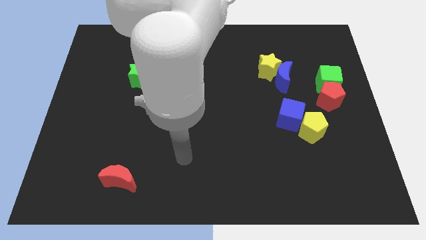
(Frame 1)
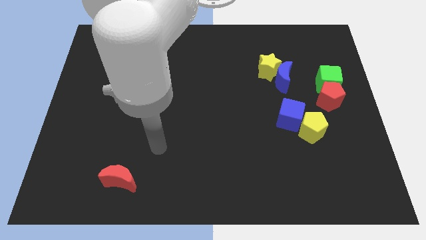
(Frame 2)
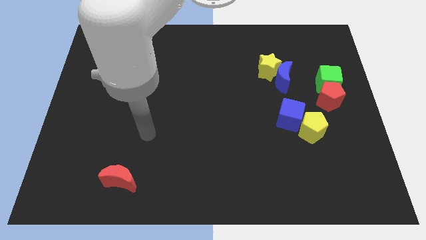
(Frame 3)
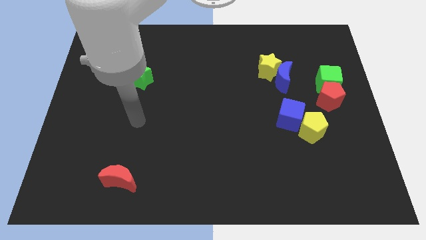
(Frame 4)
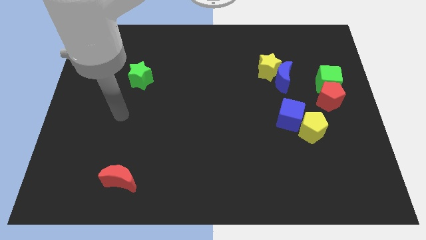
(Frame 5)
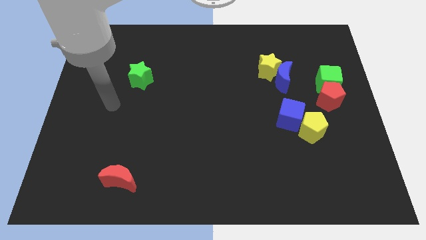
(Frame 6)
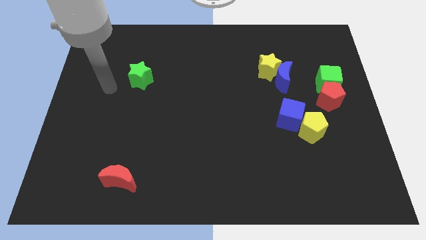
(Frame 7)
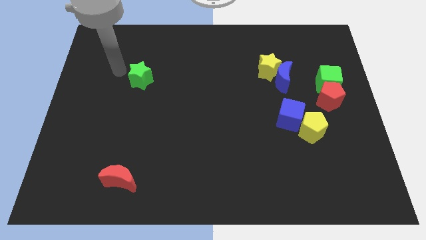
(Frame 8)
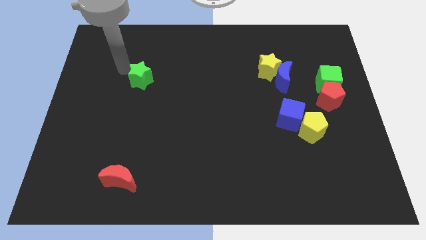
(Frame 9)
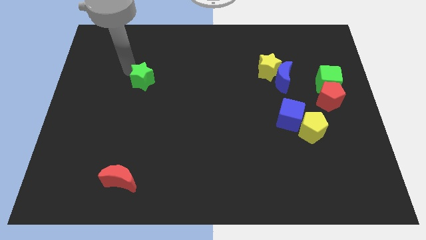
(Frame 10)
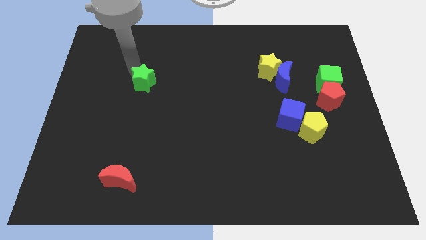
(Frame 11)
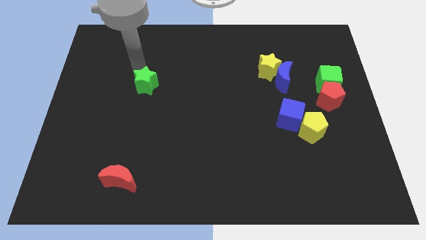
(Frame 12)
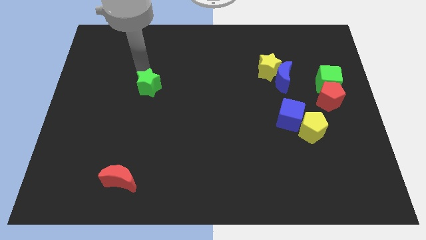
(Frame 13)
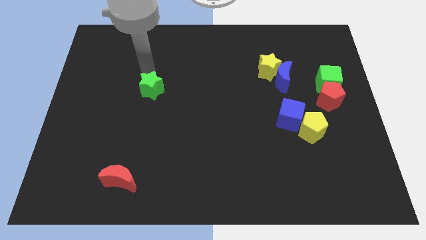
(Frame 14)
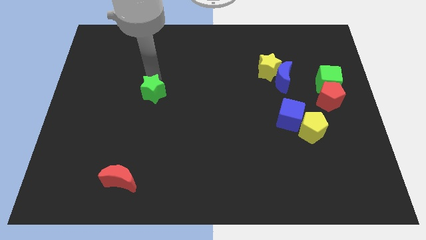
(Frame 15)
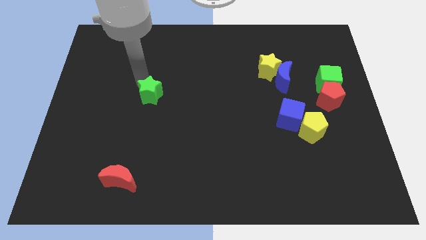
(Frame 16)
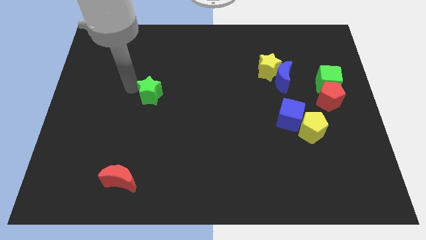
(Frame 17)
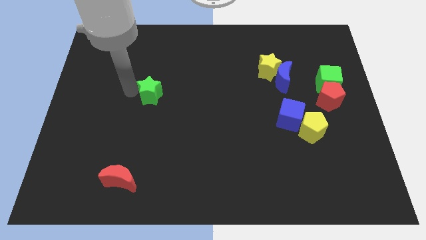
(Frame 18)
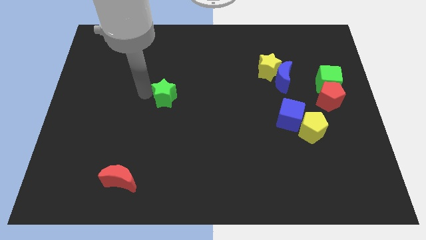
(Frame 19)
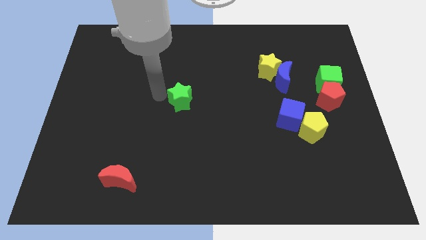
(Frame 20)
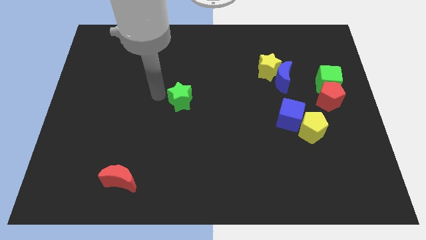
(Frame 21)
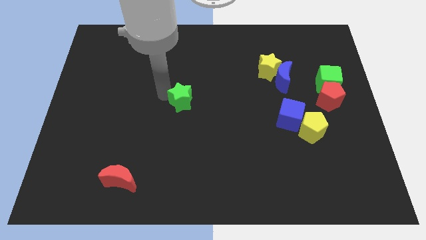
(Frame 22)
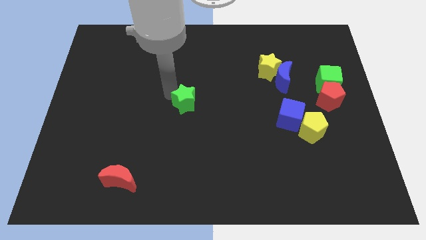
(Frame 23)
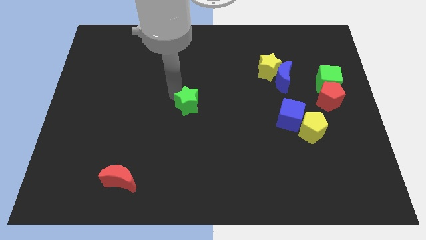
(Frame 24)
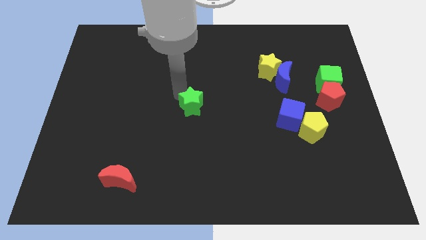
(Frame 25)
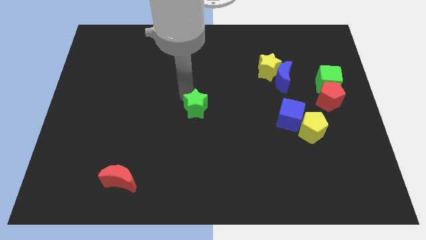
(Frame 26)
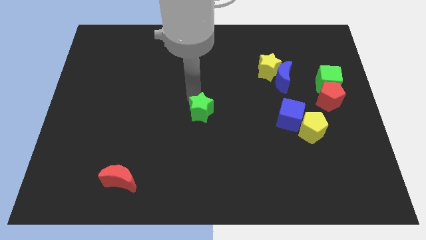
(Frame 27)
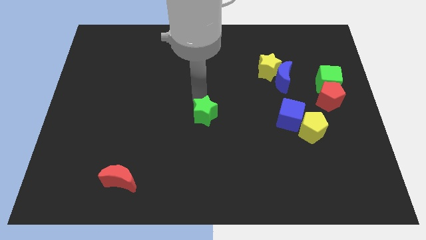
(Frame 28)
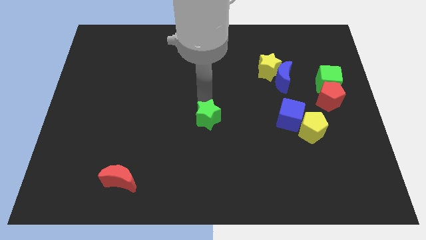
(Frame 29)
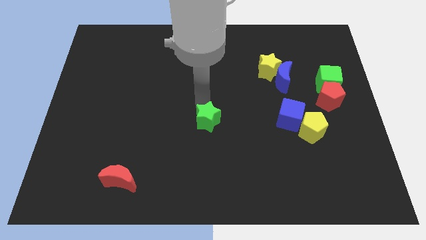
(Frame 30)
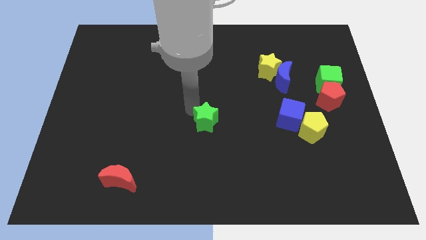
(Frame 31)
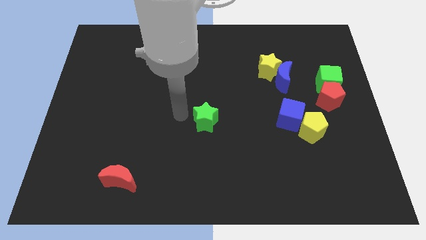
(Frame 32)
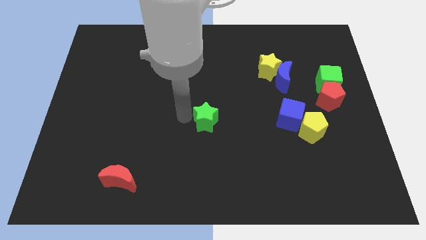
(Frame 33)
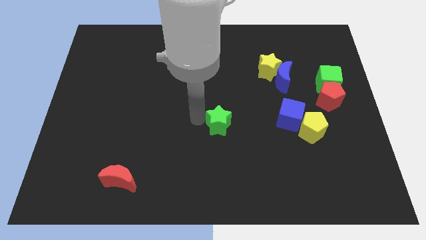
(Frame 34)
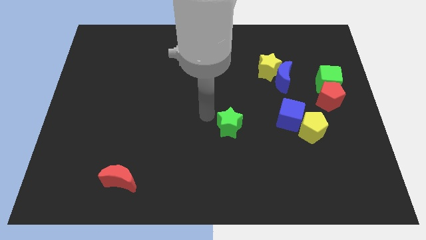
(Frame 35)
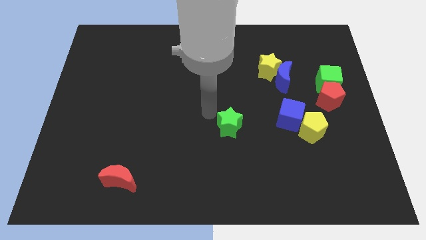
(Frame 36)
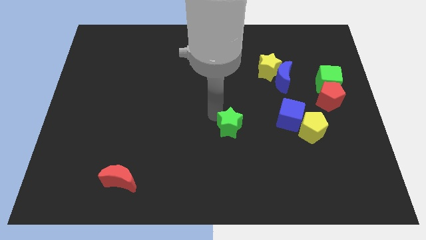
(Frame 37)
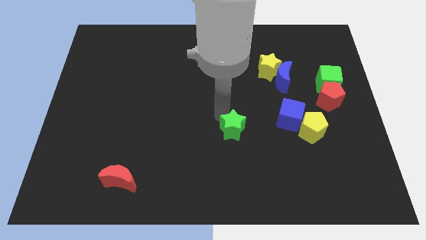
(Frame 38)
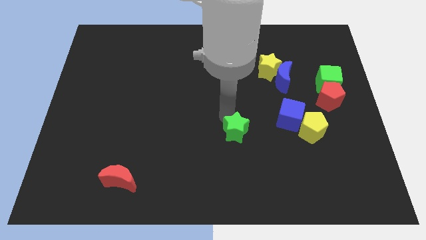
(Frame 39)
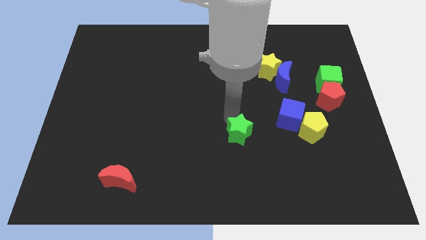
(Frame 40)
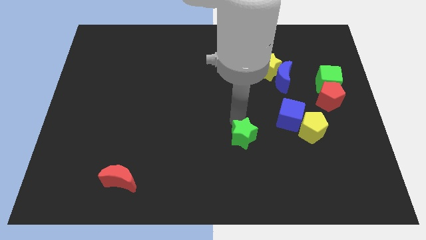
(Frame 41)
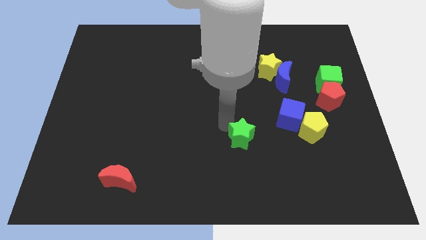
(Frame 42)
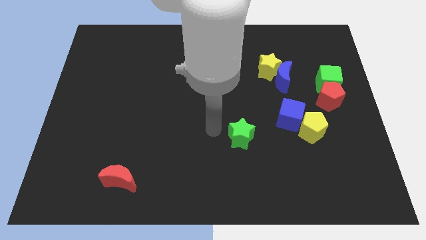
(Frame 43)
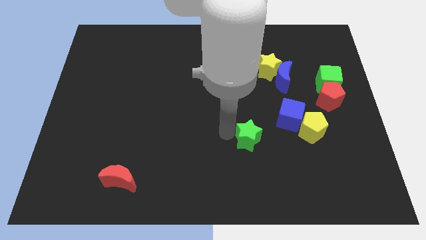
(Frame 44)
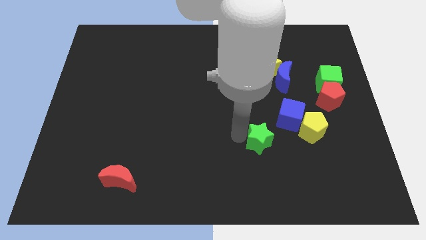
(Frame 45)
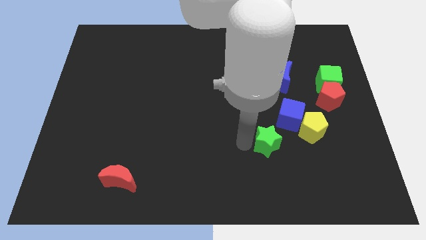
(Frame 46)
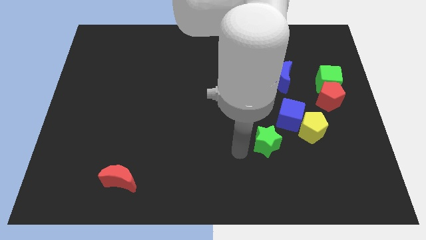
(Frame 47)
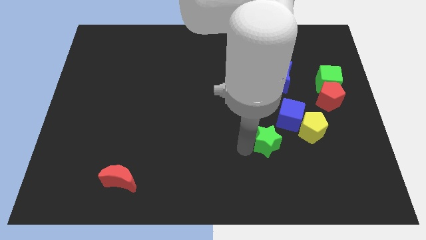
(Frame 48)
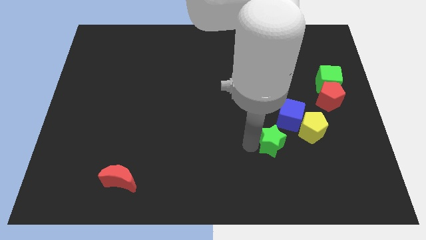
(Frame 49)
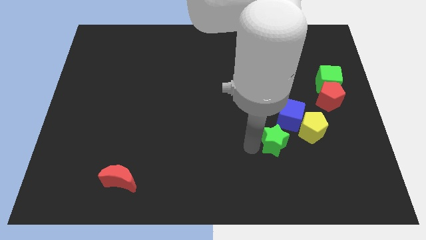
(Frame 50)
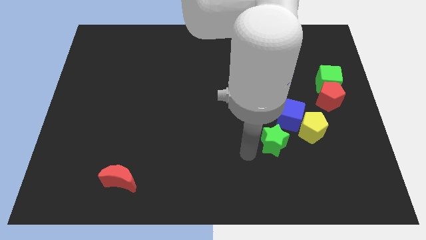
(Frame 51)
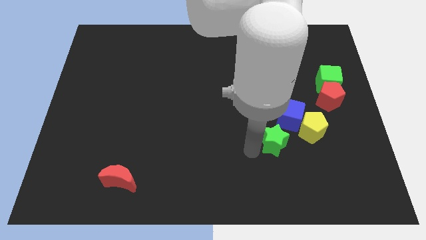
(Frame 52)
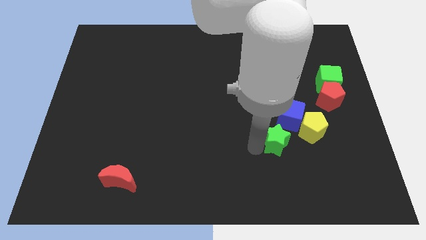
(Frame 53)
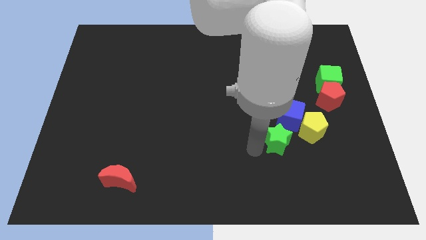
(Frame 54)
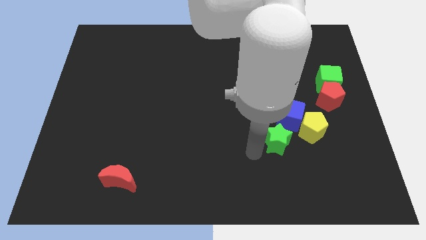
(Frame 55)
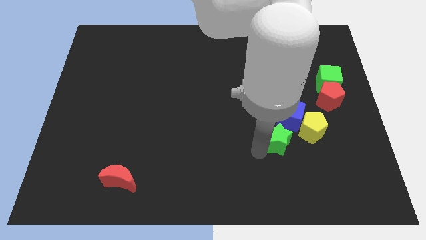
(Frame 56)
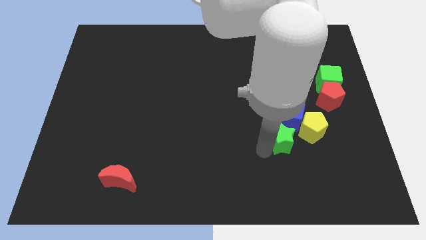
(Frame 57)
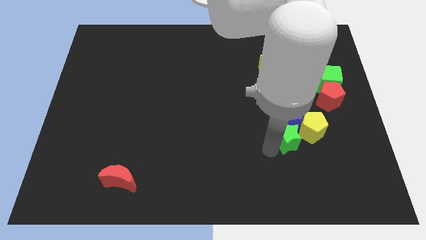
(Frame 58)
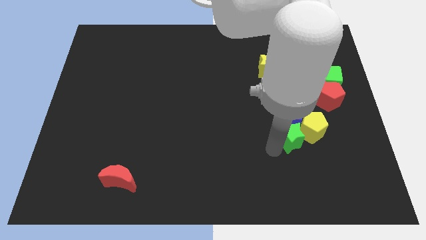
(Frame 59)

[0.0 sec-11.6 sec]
put the green star close to the yellow pentagon

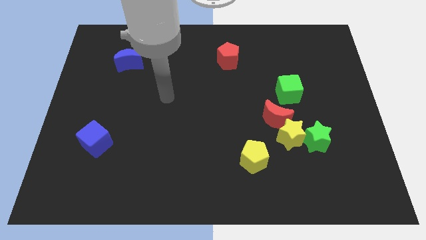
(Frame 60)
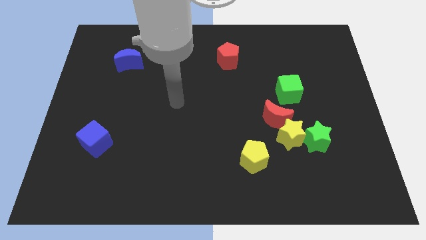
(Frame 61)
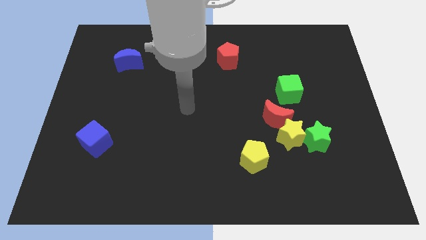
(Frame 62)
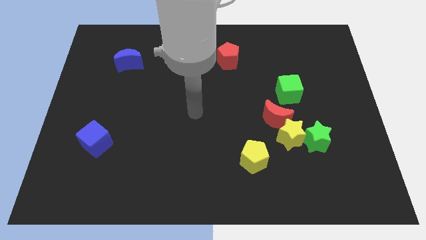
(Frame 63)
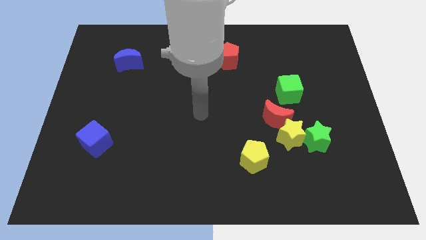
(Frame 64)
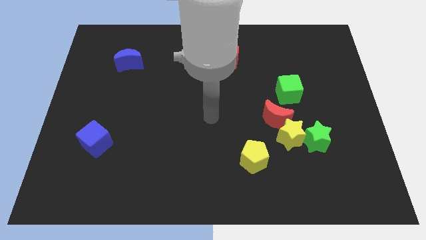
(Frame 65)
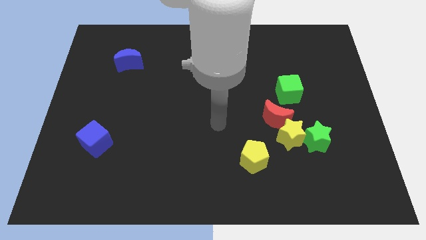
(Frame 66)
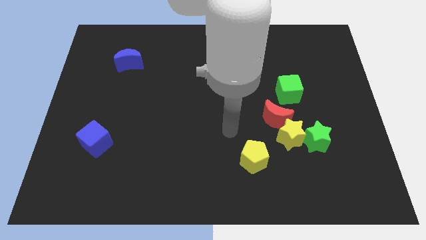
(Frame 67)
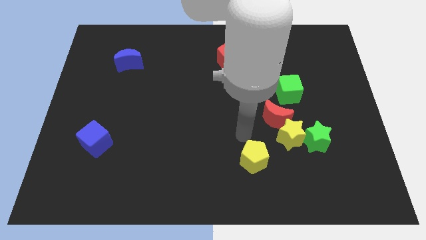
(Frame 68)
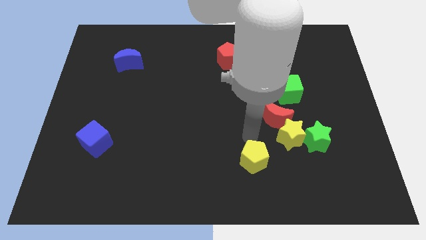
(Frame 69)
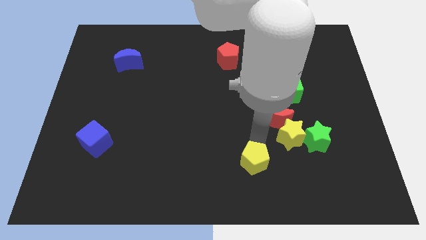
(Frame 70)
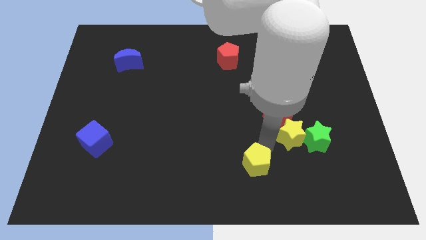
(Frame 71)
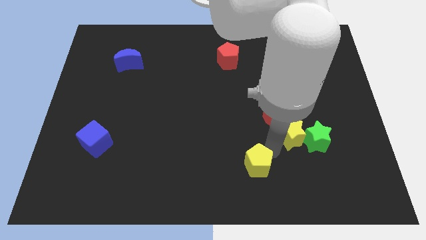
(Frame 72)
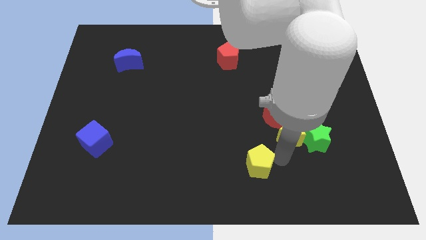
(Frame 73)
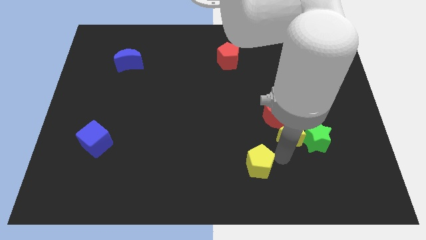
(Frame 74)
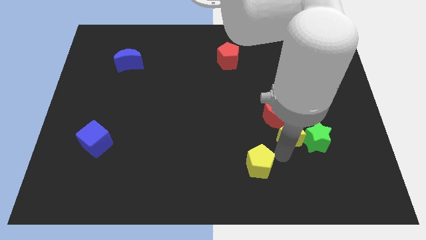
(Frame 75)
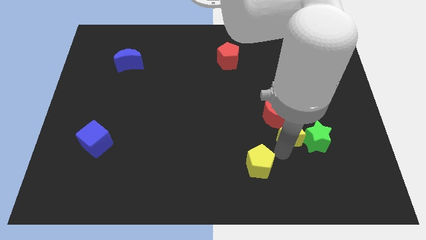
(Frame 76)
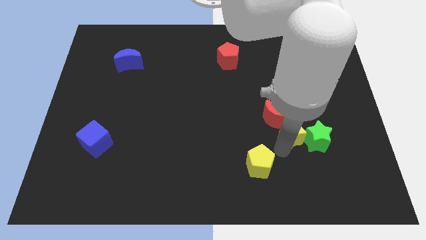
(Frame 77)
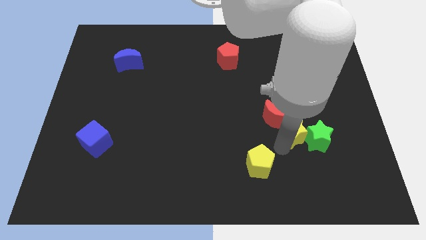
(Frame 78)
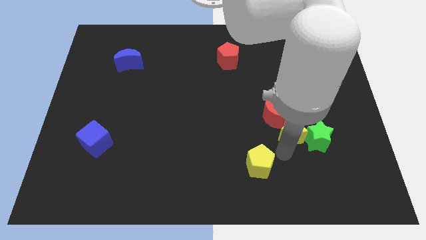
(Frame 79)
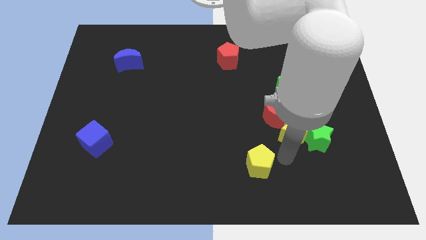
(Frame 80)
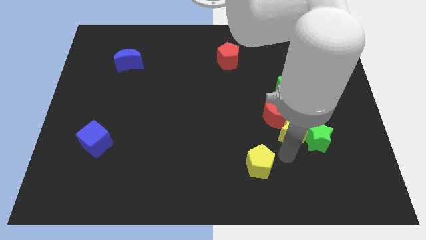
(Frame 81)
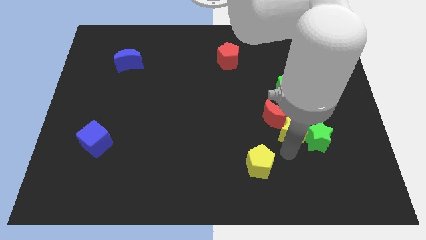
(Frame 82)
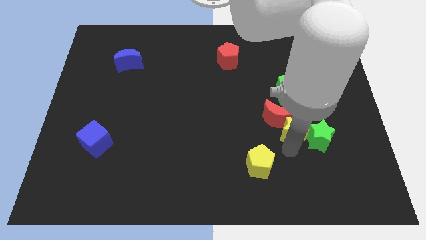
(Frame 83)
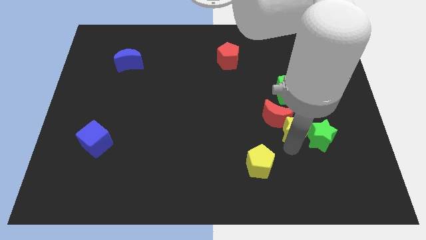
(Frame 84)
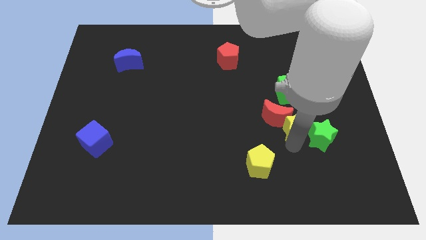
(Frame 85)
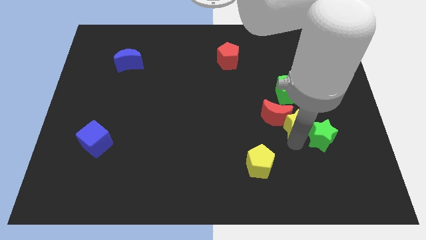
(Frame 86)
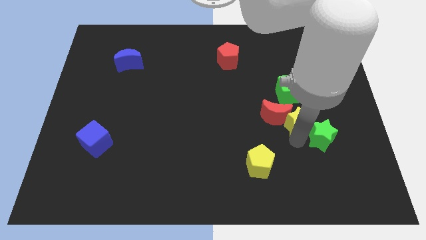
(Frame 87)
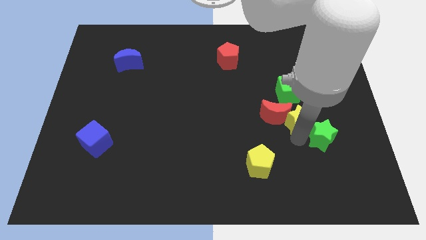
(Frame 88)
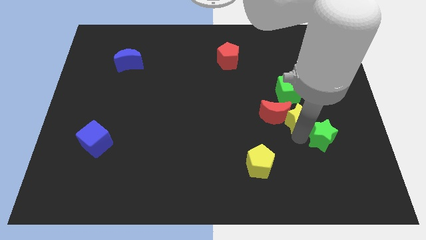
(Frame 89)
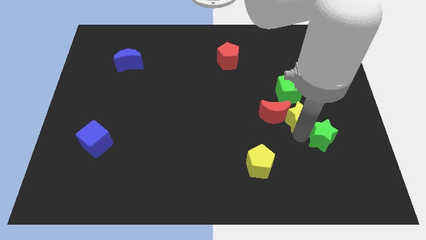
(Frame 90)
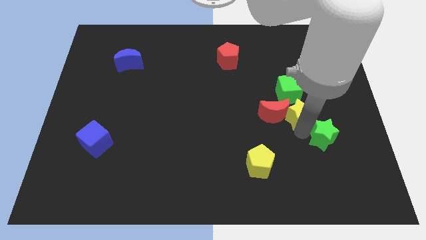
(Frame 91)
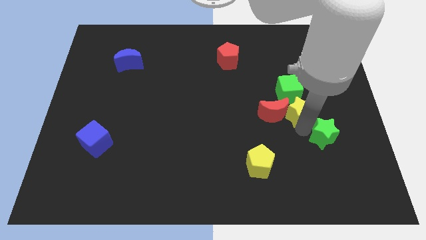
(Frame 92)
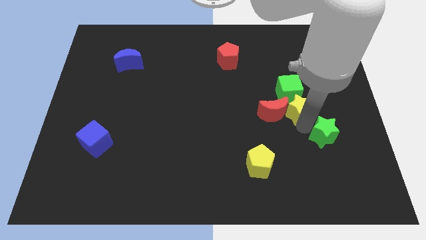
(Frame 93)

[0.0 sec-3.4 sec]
push the yellow star towards the green cube
